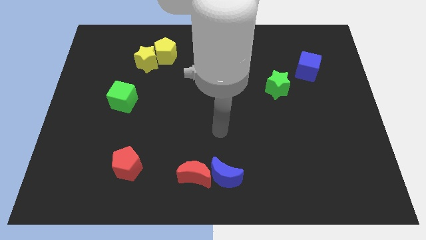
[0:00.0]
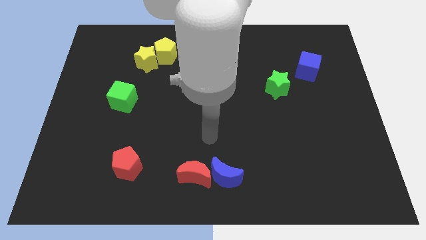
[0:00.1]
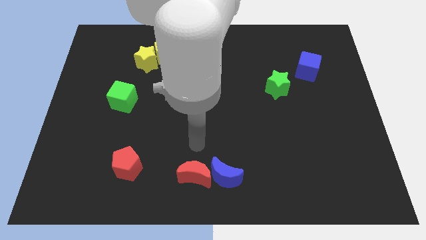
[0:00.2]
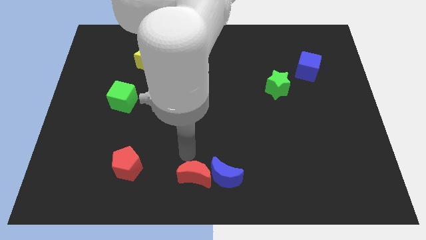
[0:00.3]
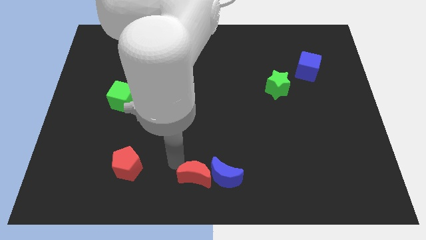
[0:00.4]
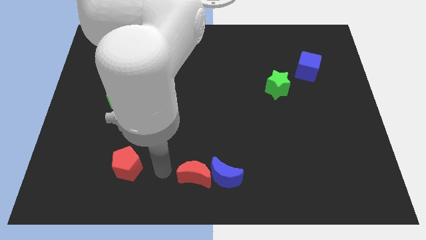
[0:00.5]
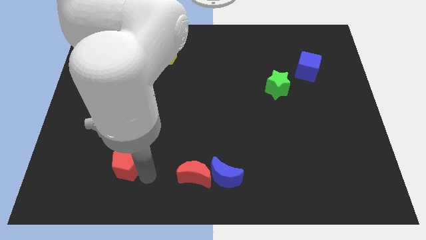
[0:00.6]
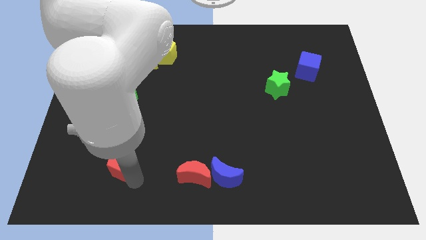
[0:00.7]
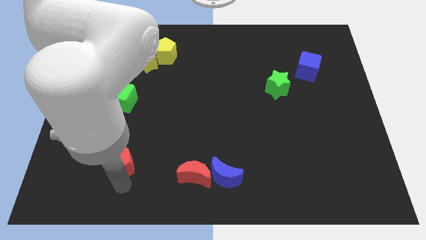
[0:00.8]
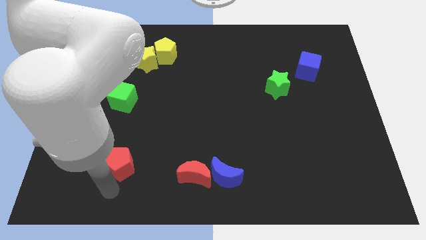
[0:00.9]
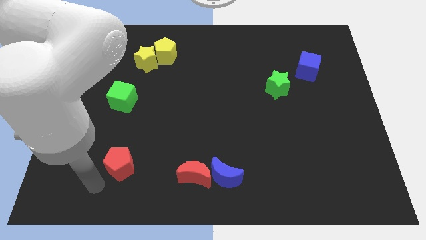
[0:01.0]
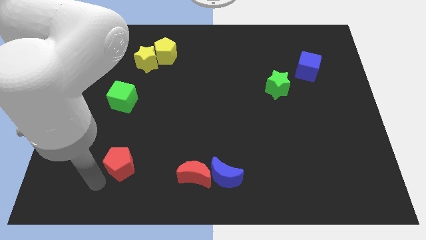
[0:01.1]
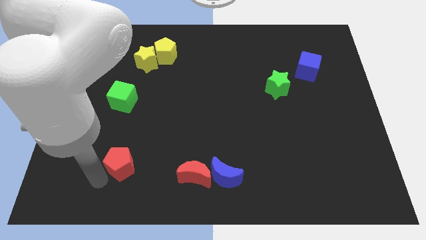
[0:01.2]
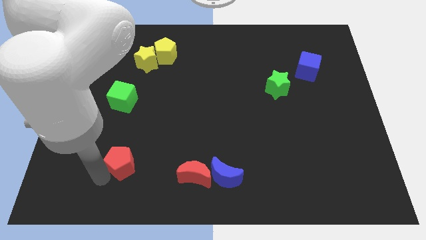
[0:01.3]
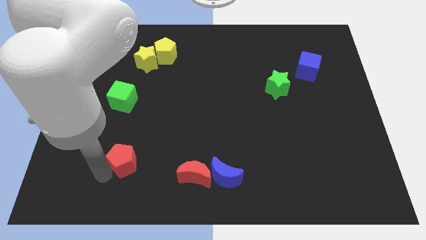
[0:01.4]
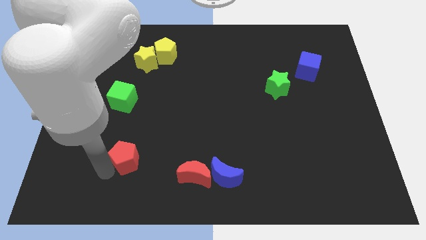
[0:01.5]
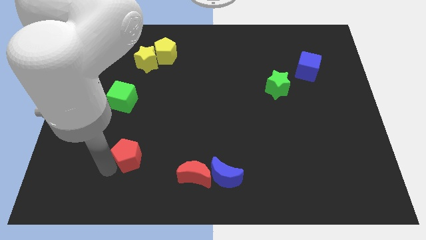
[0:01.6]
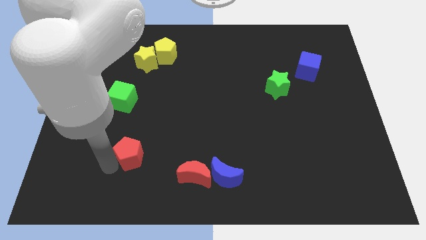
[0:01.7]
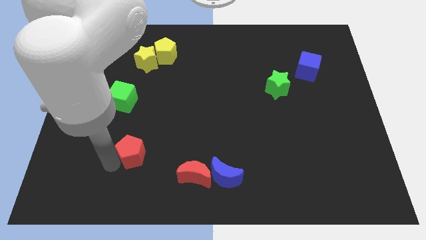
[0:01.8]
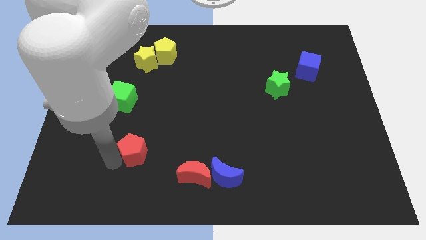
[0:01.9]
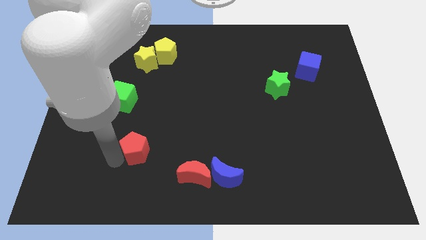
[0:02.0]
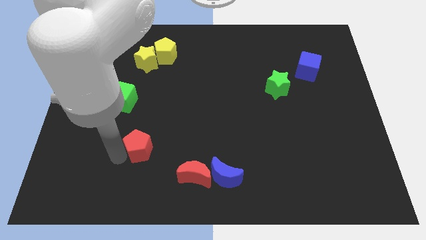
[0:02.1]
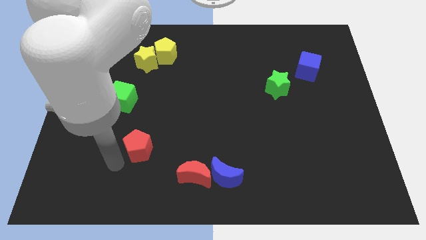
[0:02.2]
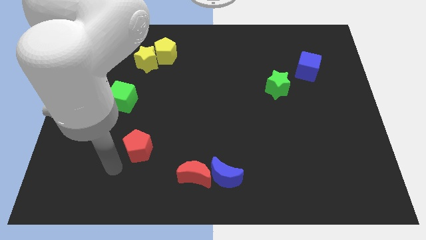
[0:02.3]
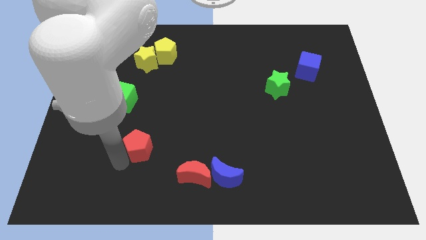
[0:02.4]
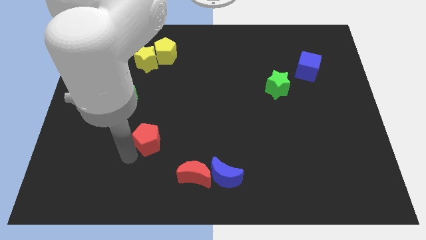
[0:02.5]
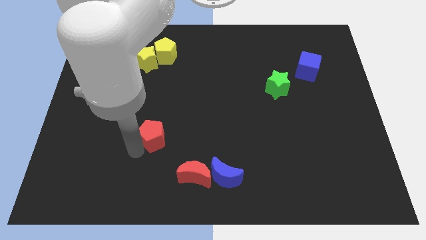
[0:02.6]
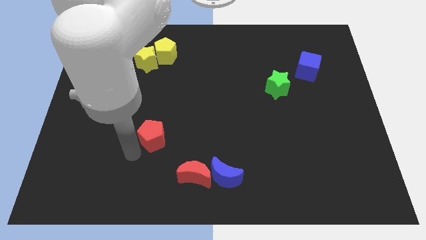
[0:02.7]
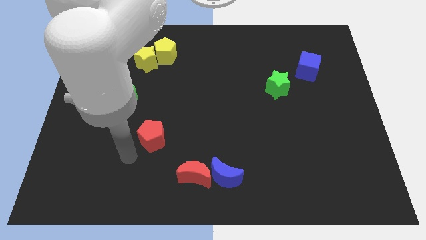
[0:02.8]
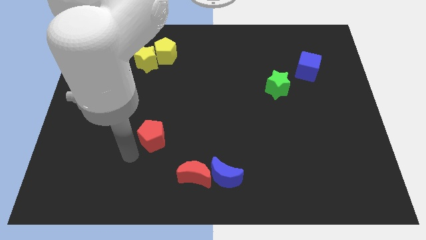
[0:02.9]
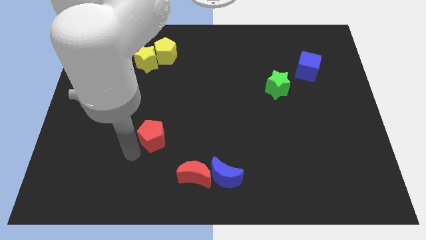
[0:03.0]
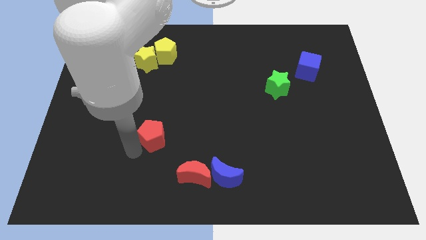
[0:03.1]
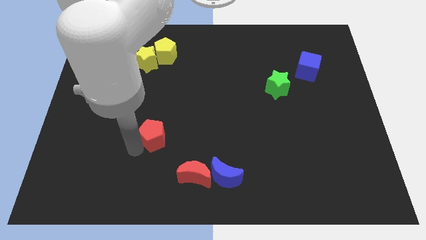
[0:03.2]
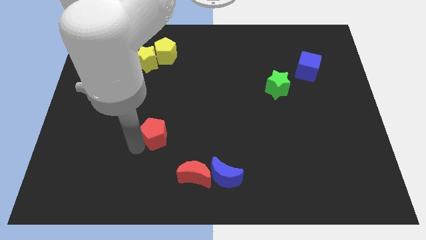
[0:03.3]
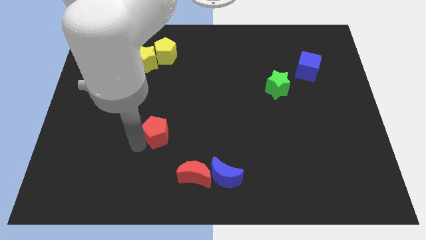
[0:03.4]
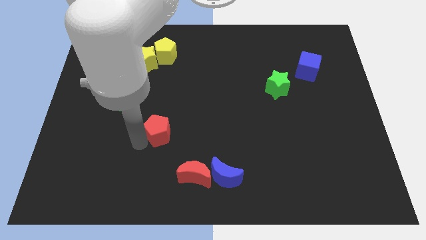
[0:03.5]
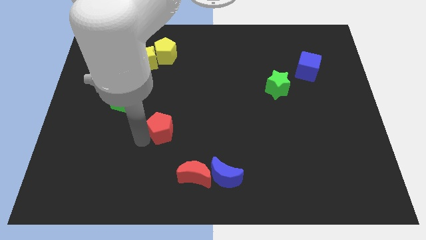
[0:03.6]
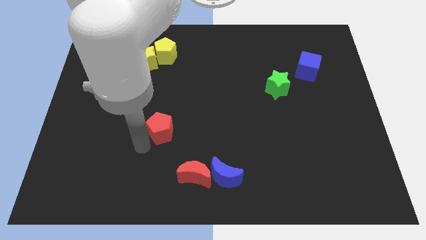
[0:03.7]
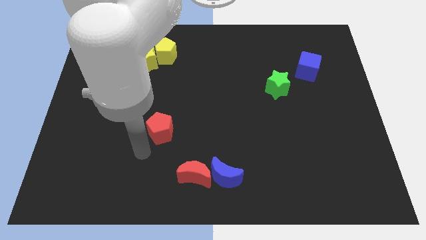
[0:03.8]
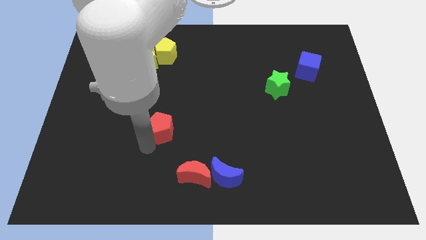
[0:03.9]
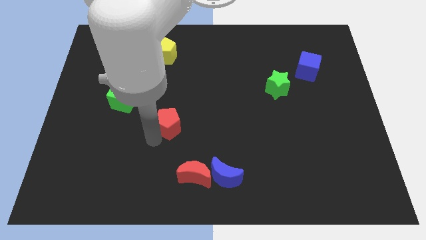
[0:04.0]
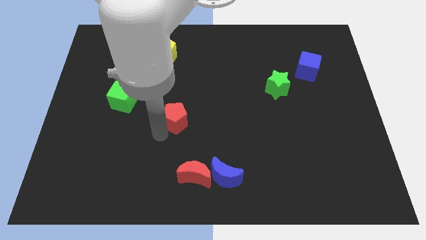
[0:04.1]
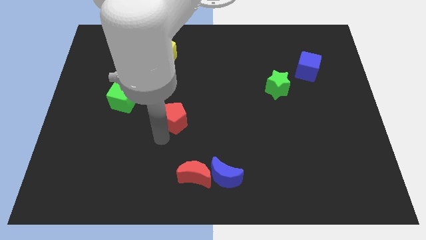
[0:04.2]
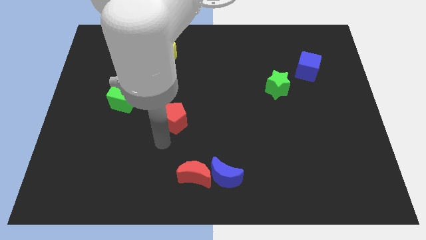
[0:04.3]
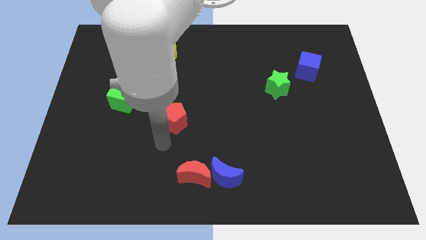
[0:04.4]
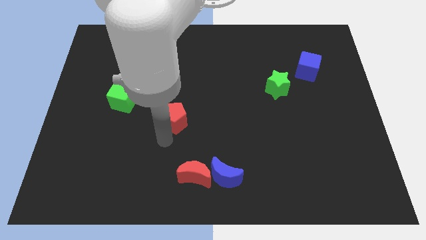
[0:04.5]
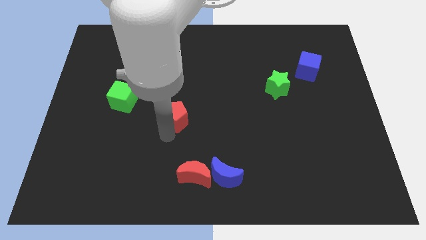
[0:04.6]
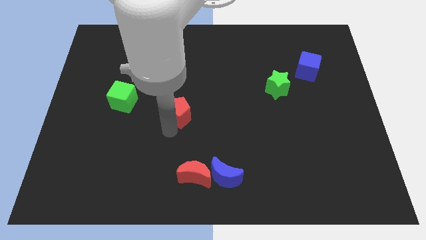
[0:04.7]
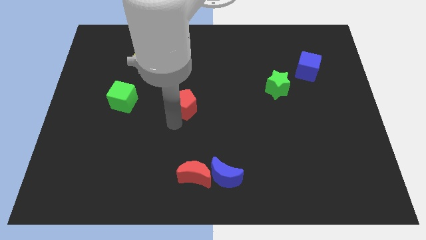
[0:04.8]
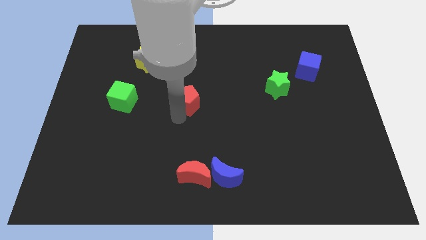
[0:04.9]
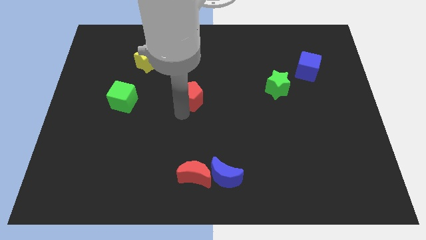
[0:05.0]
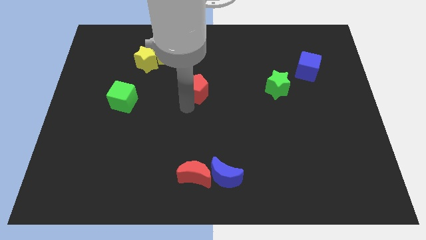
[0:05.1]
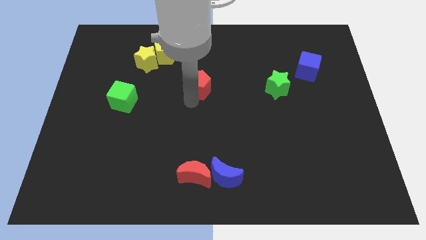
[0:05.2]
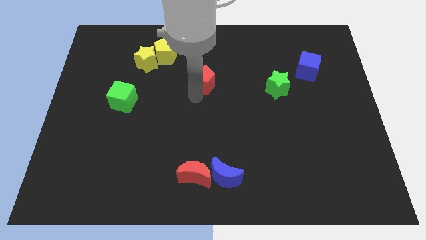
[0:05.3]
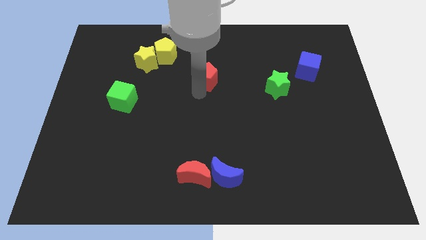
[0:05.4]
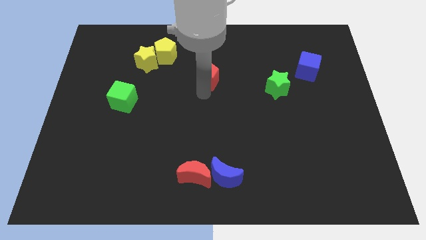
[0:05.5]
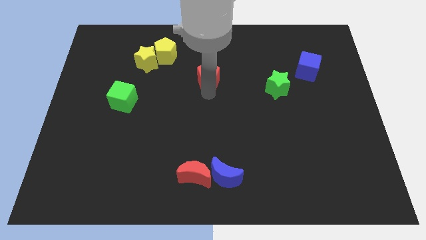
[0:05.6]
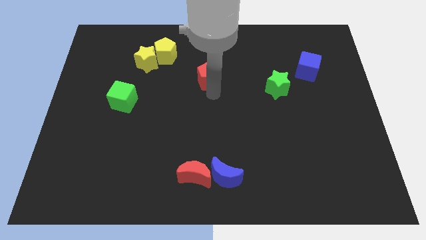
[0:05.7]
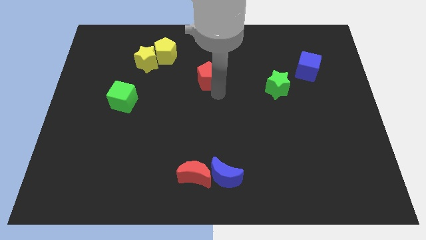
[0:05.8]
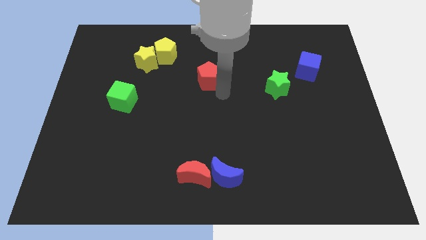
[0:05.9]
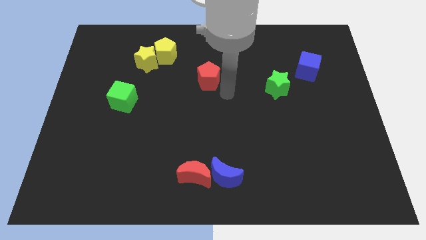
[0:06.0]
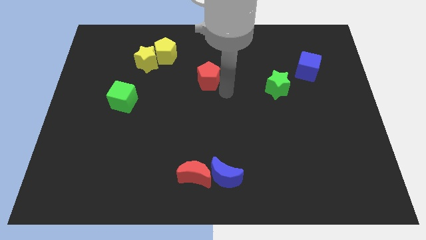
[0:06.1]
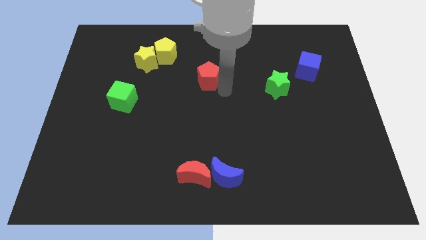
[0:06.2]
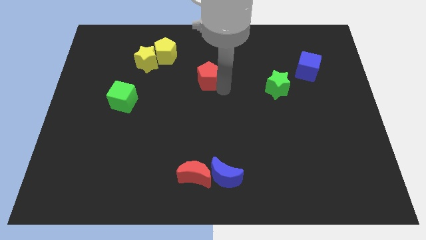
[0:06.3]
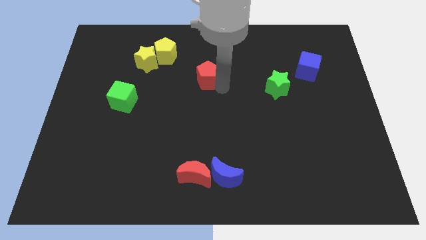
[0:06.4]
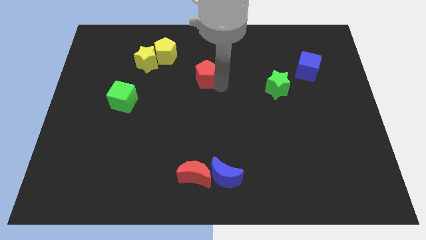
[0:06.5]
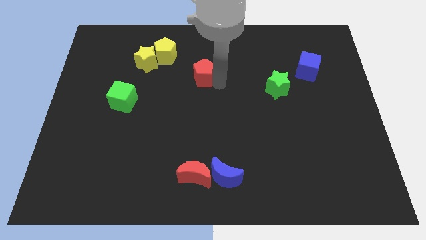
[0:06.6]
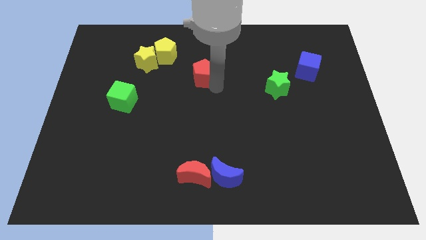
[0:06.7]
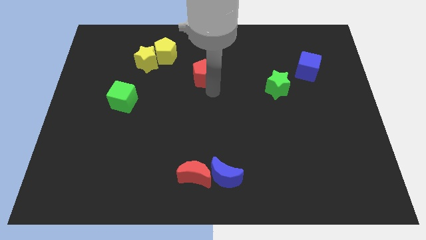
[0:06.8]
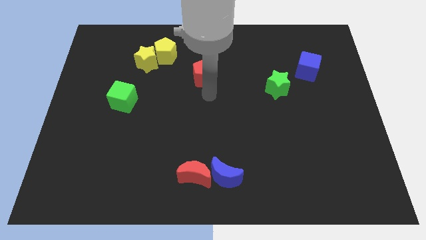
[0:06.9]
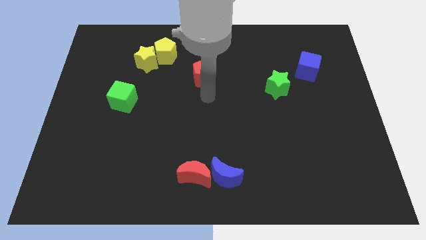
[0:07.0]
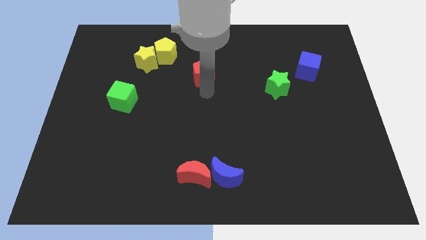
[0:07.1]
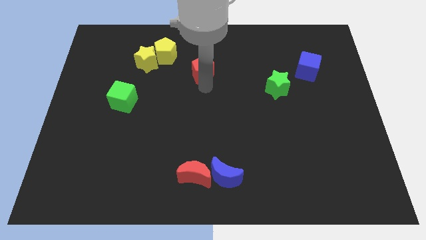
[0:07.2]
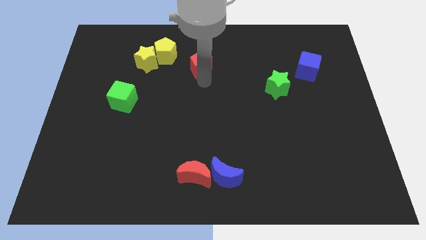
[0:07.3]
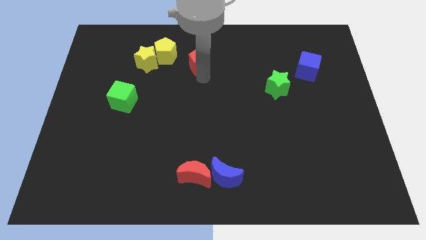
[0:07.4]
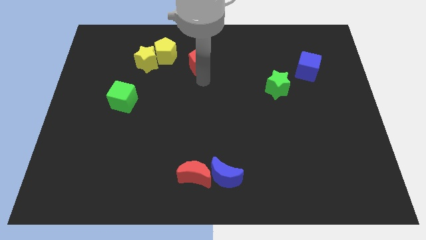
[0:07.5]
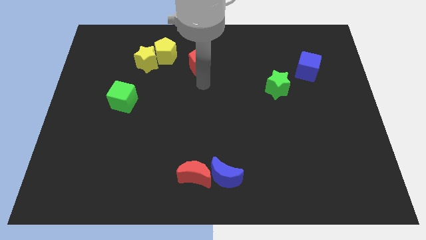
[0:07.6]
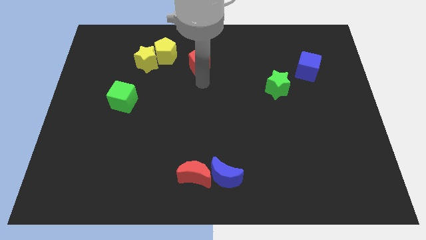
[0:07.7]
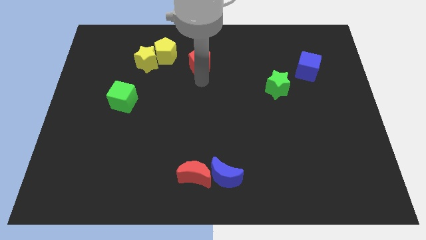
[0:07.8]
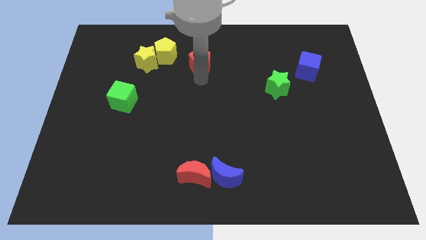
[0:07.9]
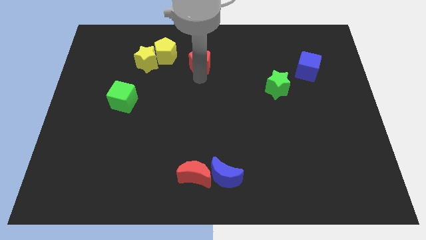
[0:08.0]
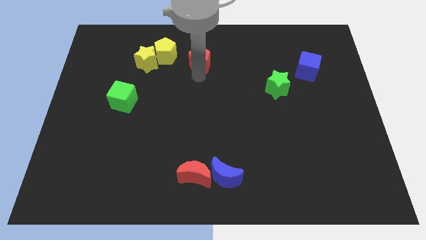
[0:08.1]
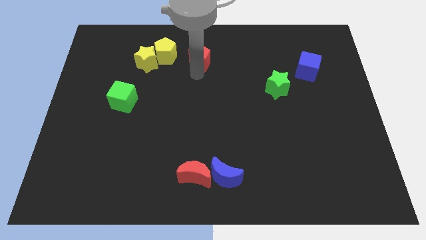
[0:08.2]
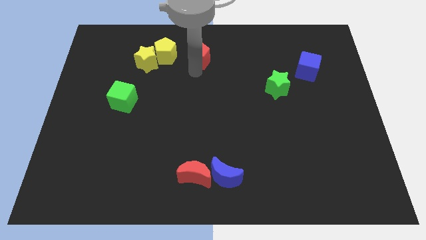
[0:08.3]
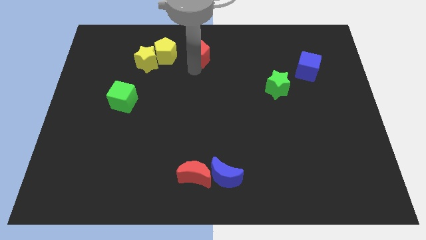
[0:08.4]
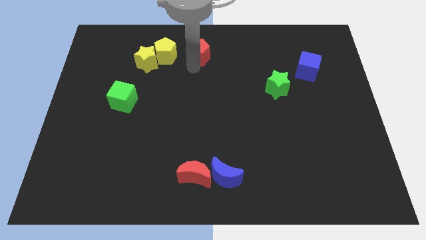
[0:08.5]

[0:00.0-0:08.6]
move the red pentagon to the towards your base
